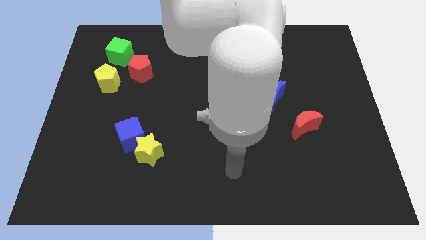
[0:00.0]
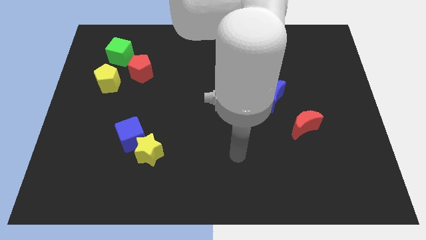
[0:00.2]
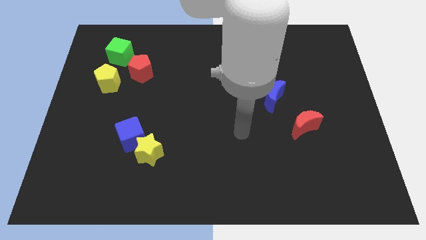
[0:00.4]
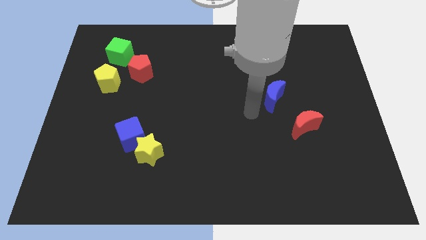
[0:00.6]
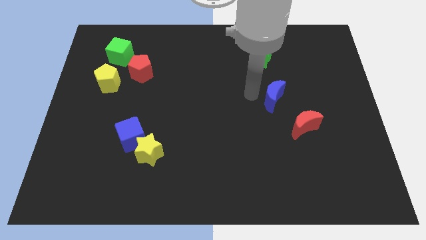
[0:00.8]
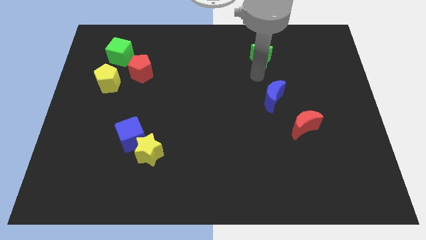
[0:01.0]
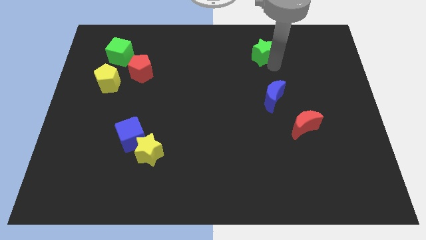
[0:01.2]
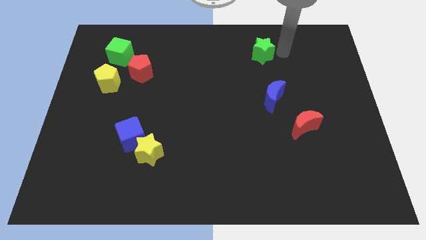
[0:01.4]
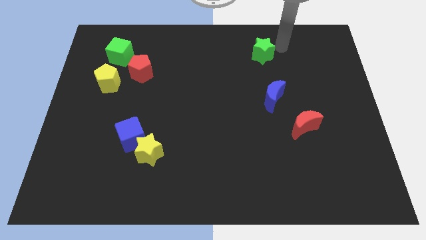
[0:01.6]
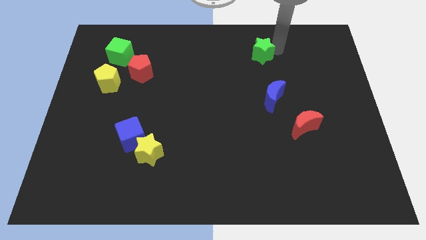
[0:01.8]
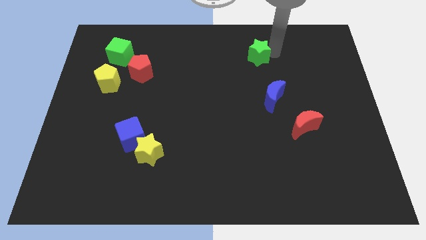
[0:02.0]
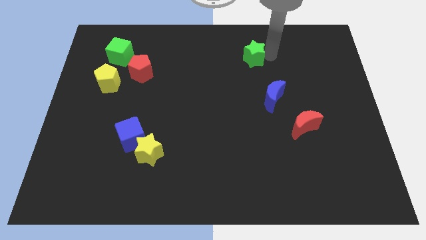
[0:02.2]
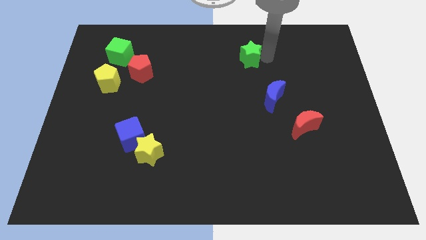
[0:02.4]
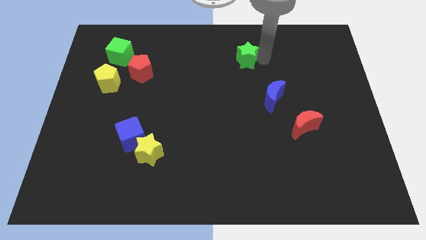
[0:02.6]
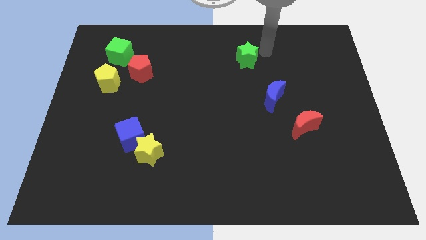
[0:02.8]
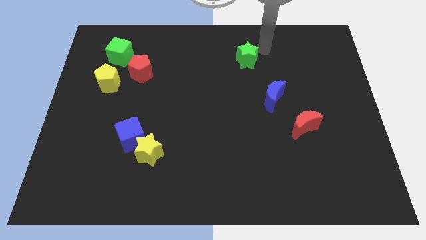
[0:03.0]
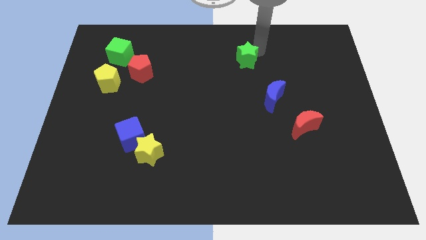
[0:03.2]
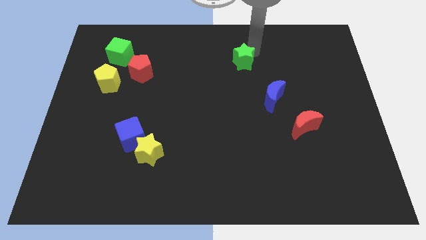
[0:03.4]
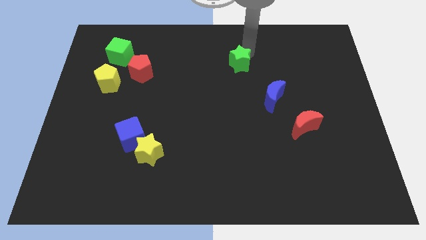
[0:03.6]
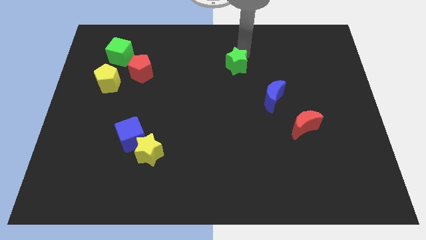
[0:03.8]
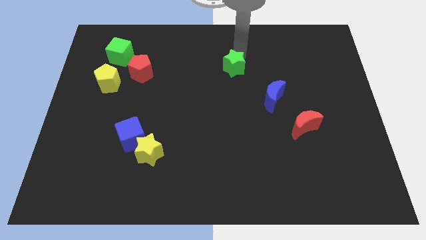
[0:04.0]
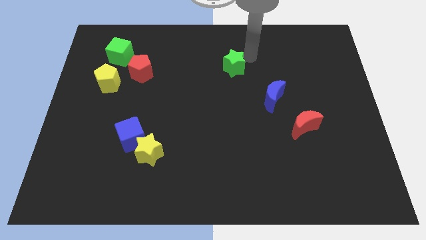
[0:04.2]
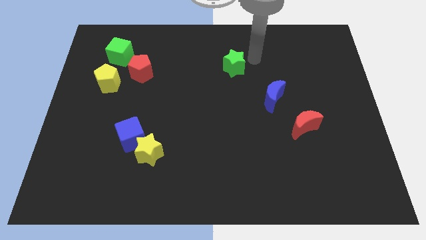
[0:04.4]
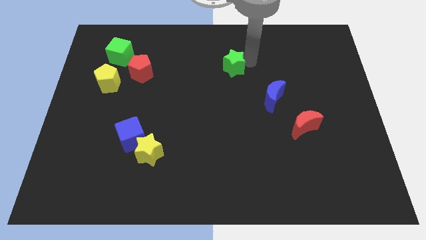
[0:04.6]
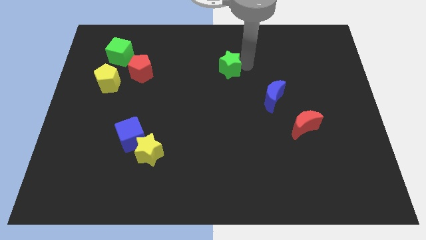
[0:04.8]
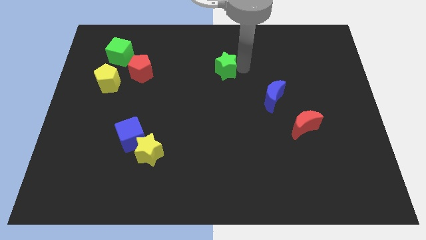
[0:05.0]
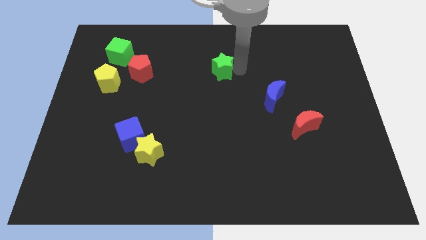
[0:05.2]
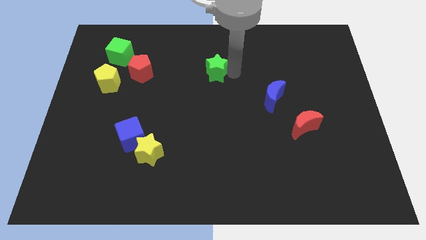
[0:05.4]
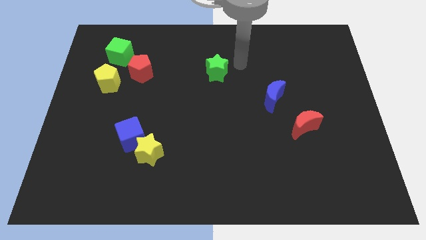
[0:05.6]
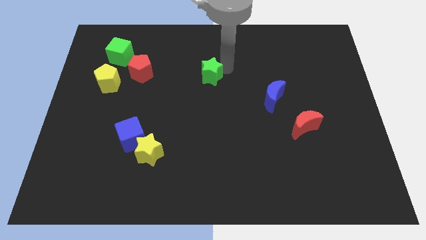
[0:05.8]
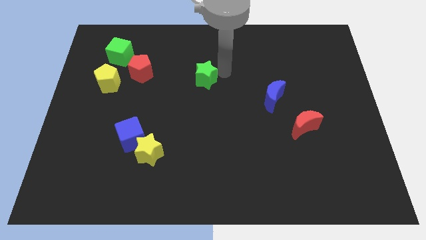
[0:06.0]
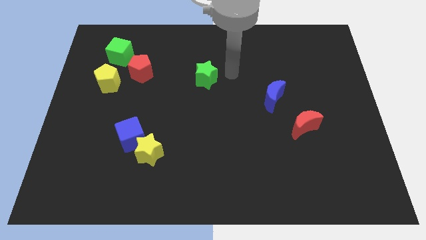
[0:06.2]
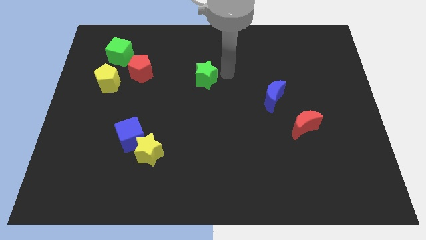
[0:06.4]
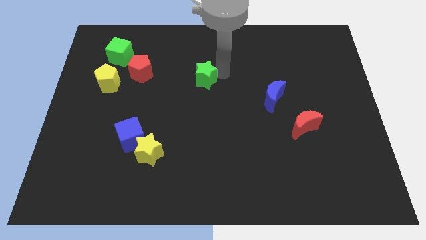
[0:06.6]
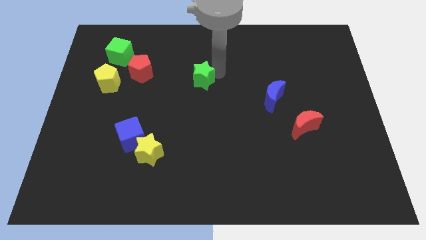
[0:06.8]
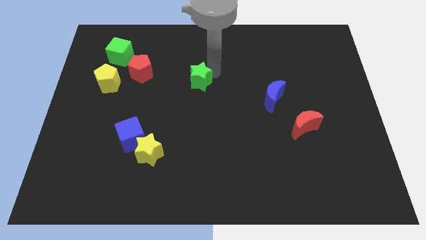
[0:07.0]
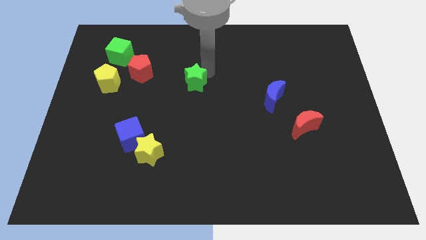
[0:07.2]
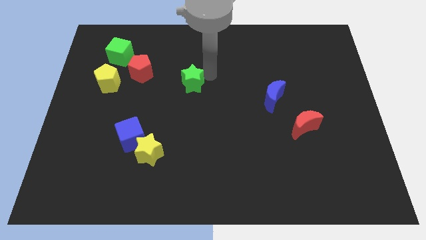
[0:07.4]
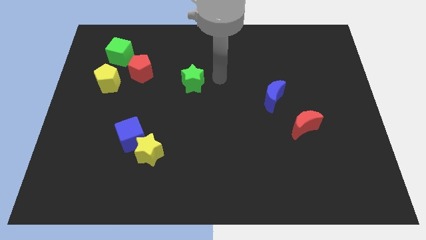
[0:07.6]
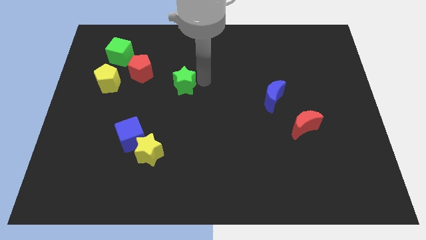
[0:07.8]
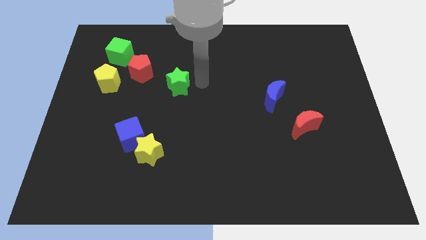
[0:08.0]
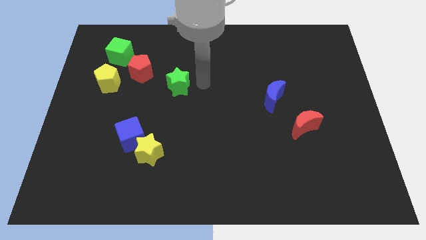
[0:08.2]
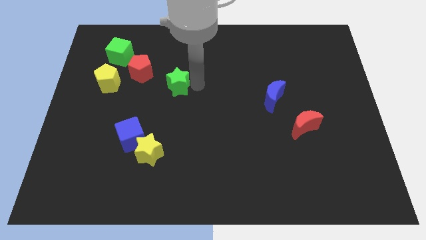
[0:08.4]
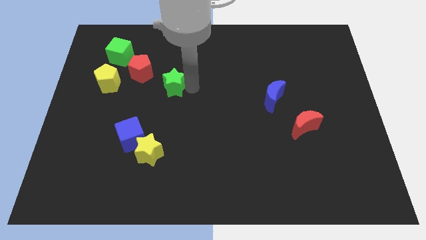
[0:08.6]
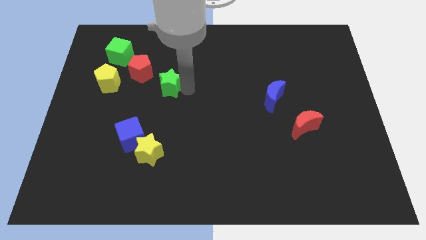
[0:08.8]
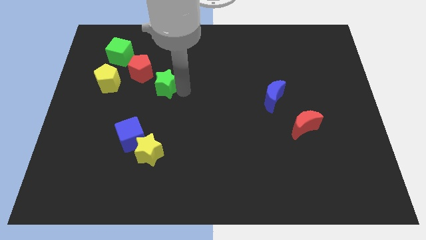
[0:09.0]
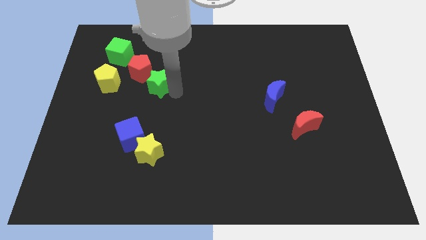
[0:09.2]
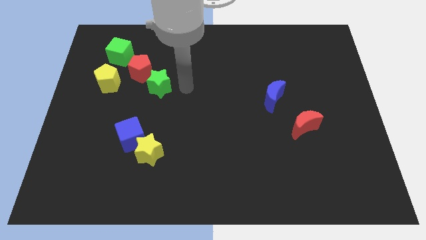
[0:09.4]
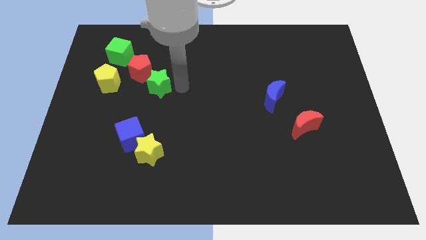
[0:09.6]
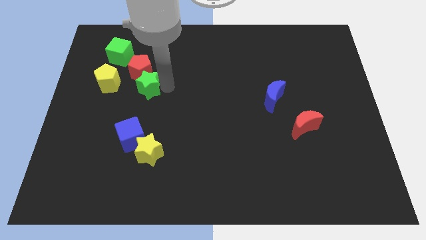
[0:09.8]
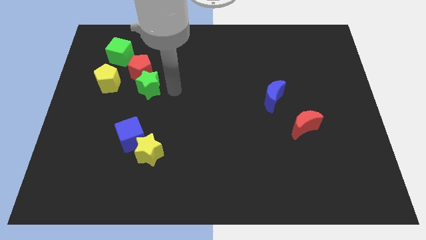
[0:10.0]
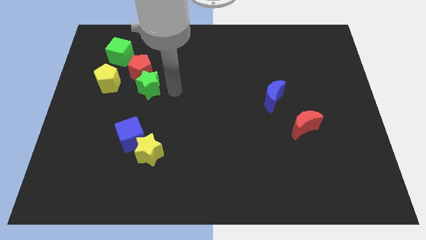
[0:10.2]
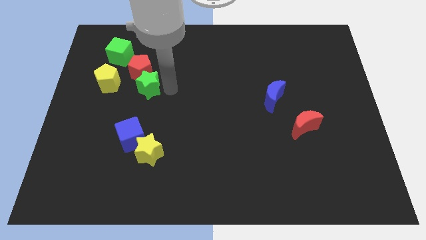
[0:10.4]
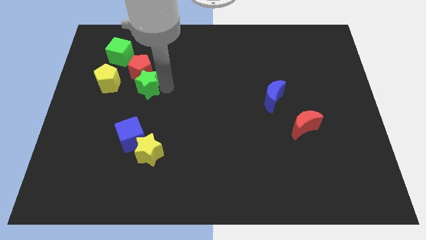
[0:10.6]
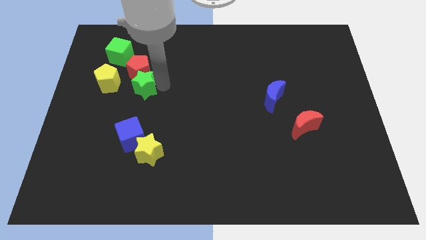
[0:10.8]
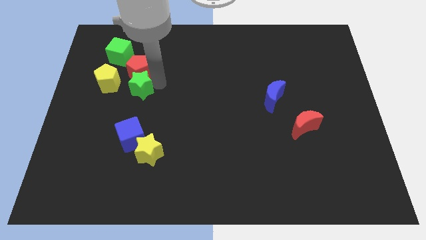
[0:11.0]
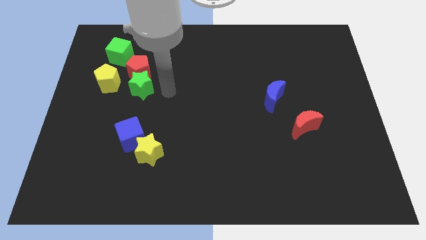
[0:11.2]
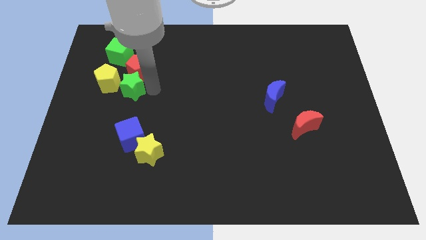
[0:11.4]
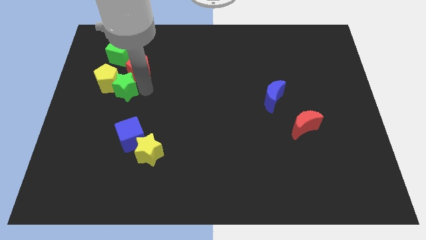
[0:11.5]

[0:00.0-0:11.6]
move the green star next to the yellow pentagon

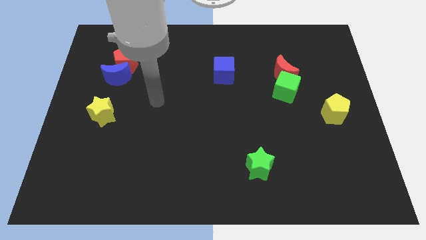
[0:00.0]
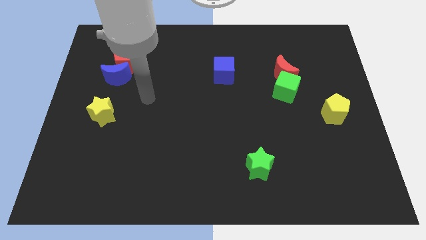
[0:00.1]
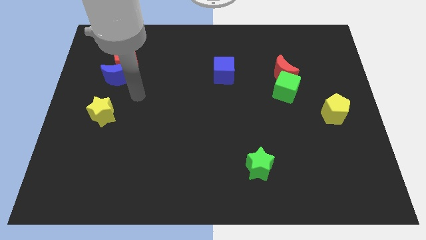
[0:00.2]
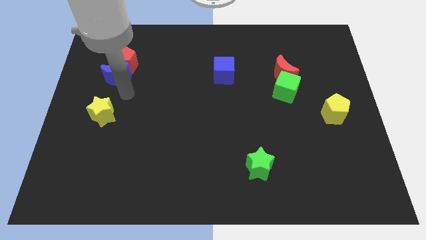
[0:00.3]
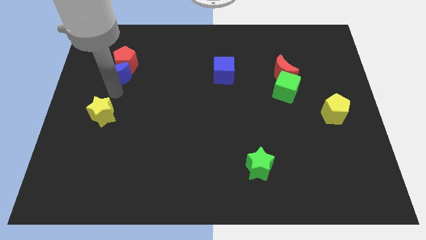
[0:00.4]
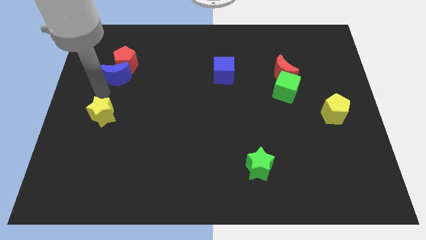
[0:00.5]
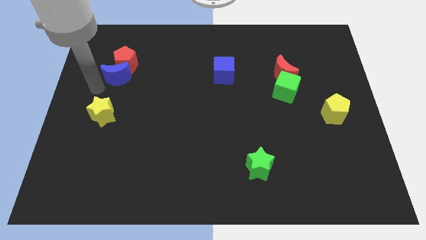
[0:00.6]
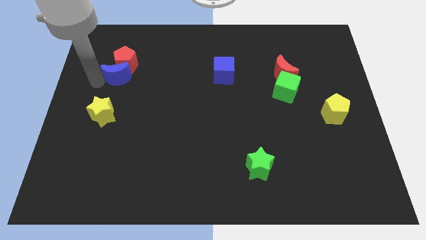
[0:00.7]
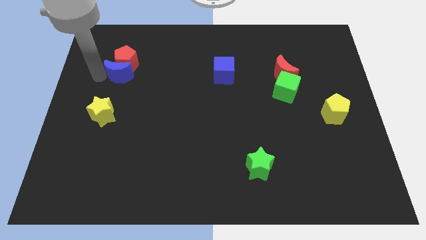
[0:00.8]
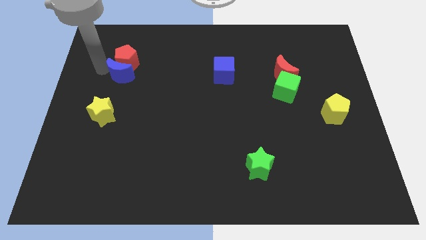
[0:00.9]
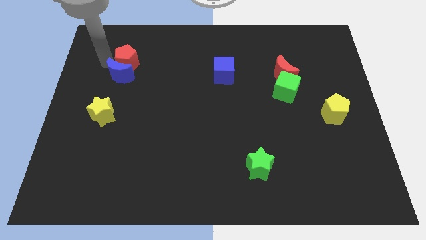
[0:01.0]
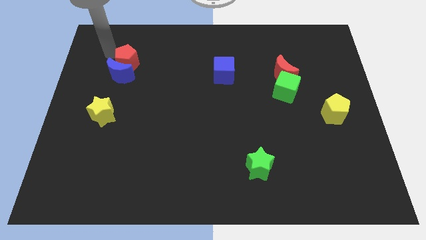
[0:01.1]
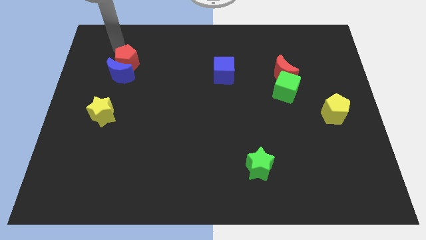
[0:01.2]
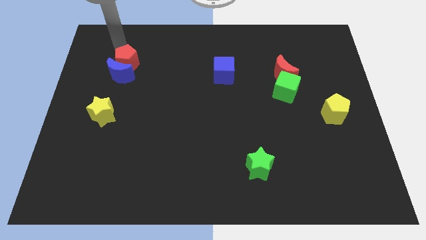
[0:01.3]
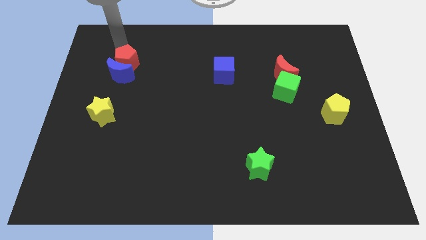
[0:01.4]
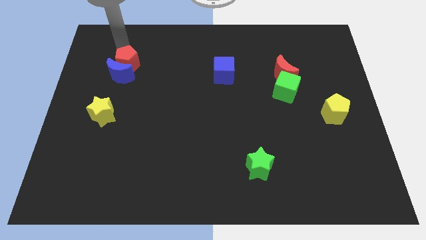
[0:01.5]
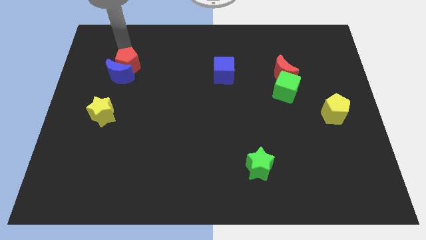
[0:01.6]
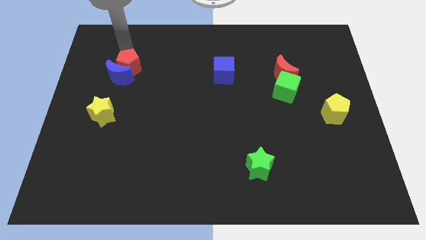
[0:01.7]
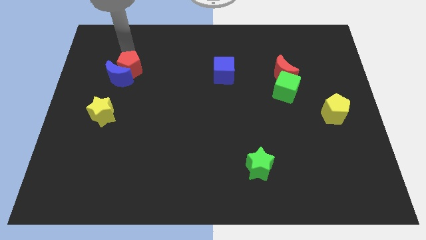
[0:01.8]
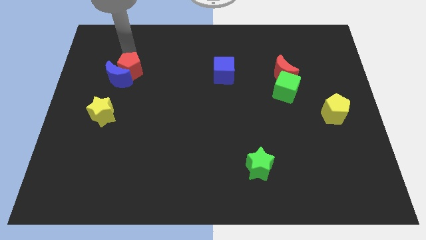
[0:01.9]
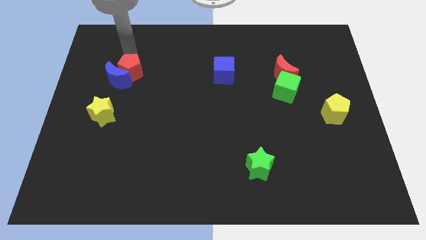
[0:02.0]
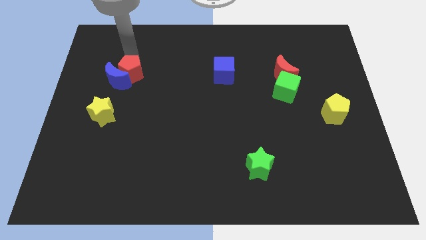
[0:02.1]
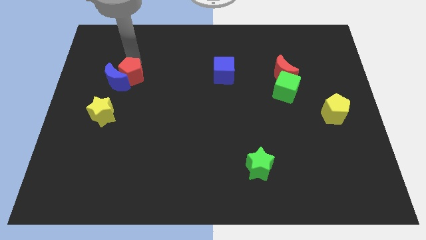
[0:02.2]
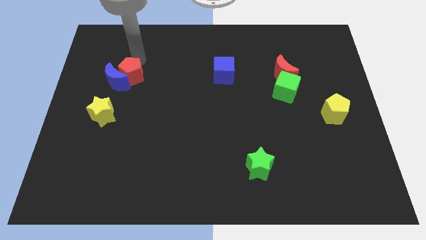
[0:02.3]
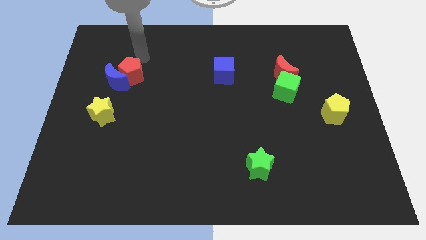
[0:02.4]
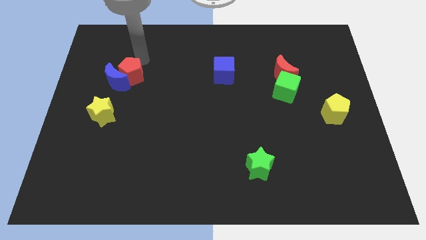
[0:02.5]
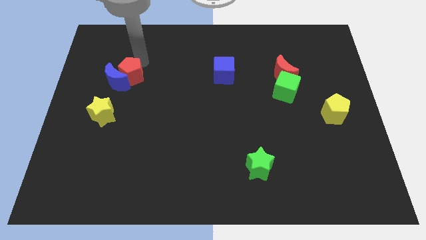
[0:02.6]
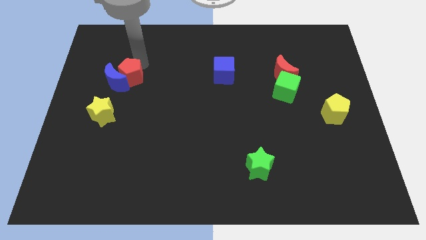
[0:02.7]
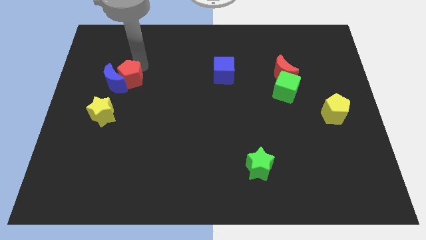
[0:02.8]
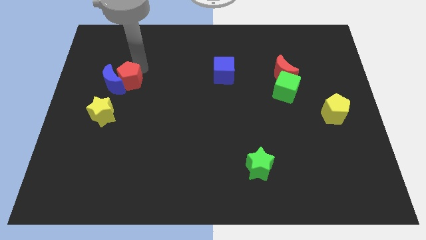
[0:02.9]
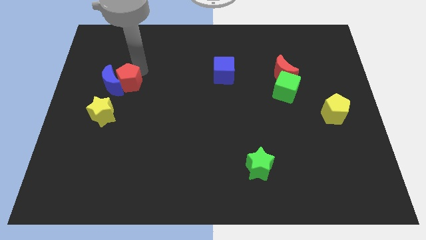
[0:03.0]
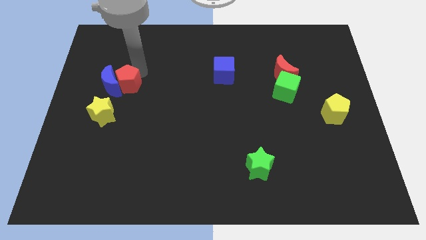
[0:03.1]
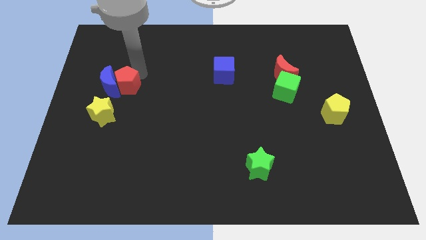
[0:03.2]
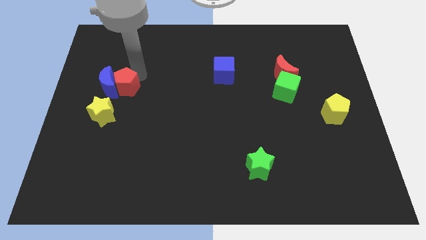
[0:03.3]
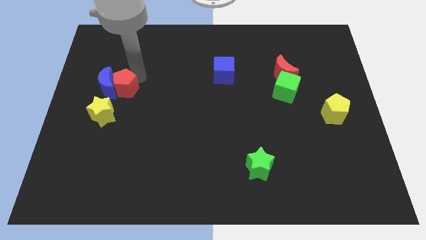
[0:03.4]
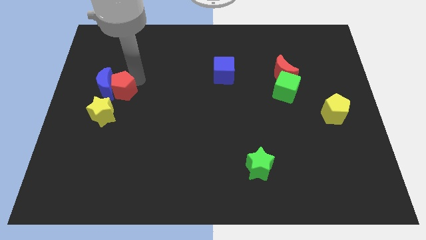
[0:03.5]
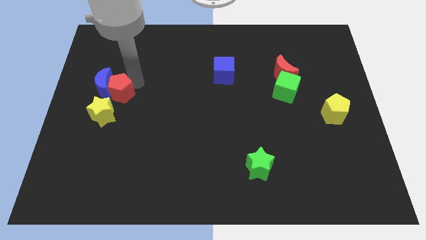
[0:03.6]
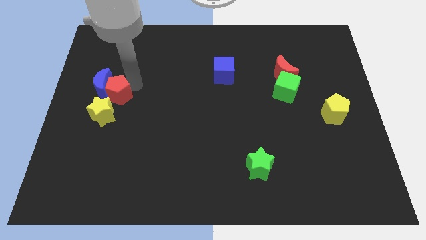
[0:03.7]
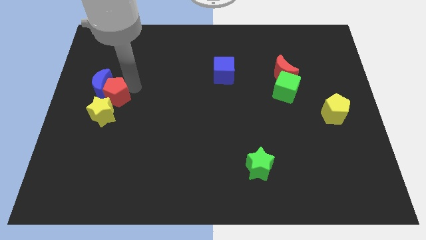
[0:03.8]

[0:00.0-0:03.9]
move the red pentagon close to the yellow star
